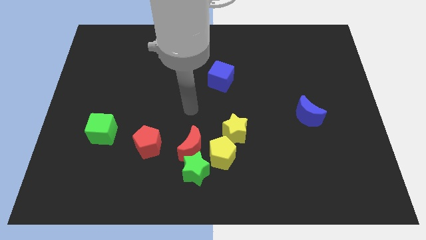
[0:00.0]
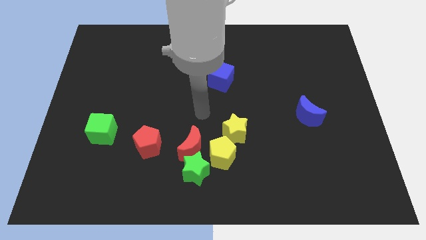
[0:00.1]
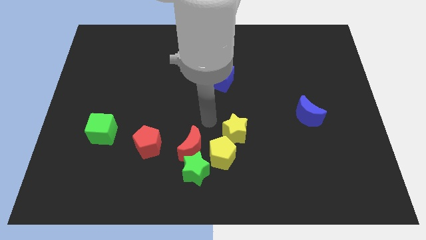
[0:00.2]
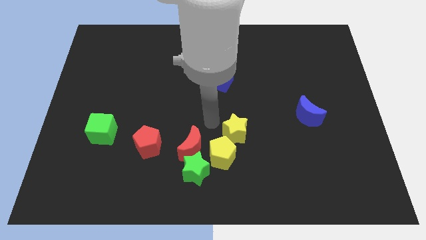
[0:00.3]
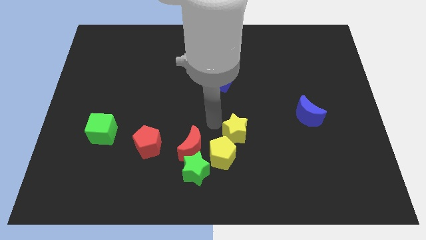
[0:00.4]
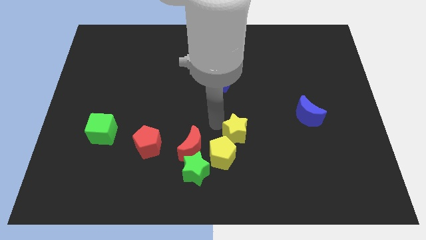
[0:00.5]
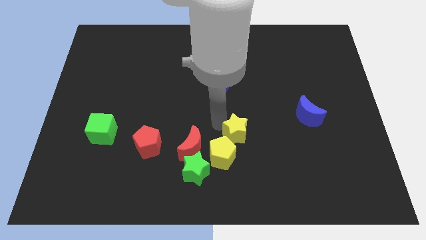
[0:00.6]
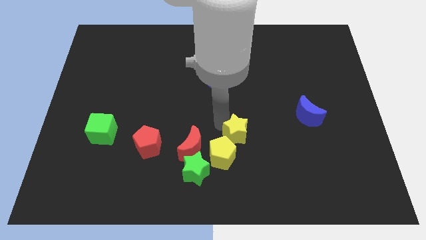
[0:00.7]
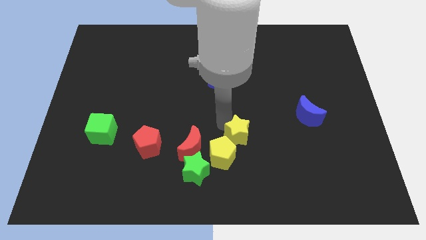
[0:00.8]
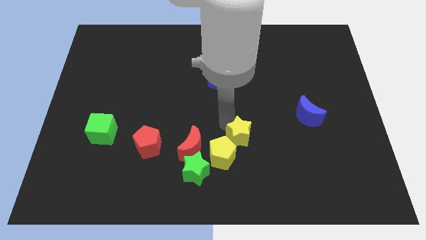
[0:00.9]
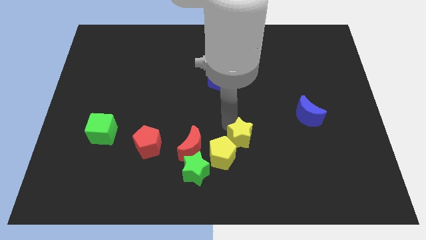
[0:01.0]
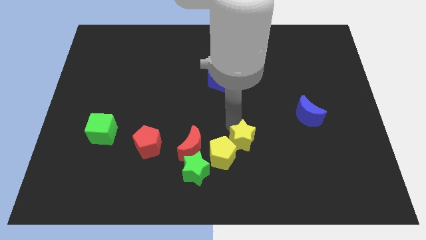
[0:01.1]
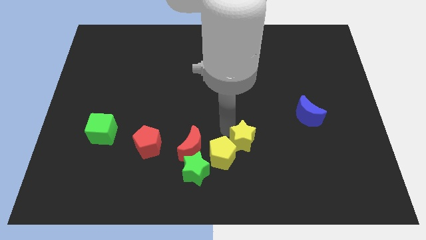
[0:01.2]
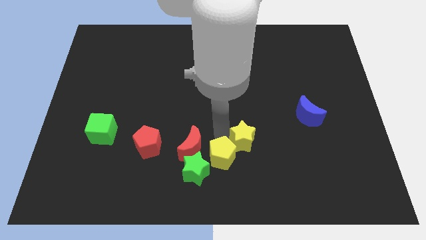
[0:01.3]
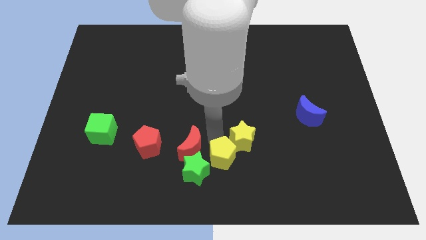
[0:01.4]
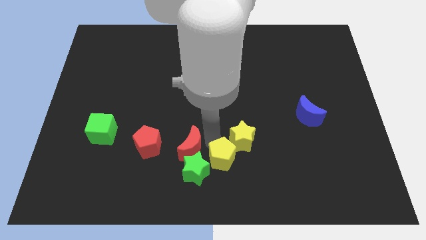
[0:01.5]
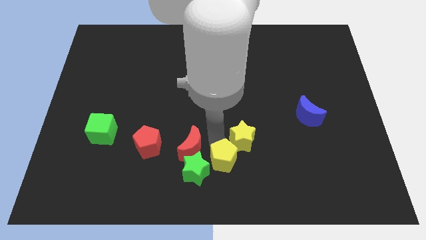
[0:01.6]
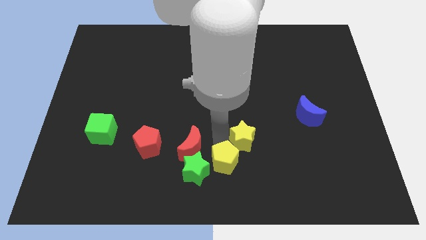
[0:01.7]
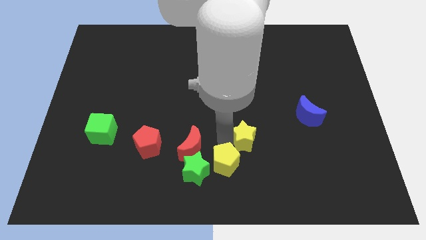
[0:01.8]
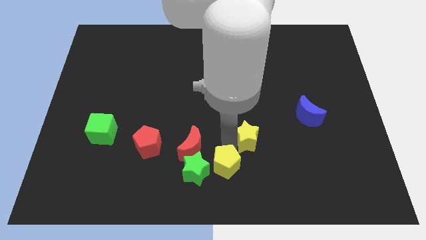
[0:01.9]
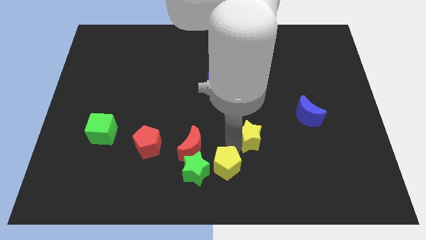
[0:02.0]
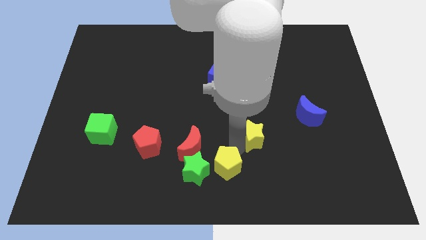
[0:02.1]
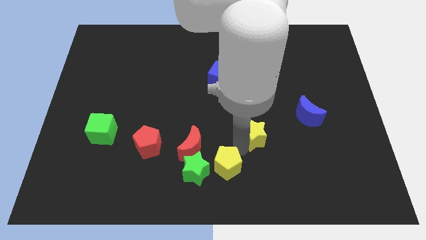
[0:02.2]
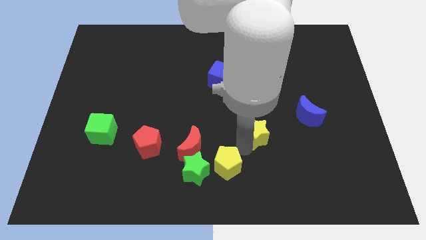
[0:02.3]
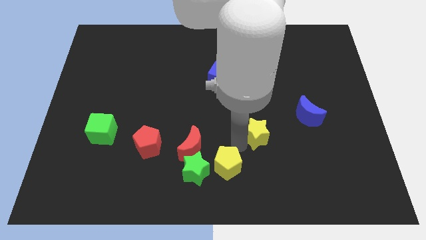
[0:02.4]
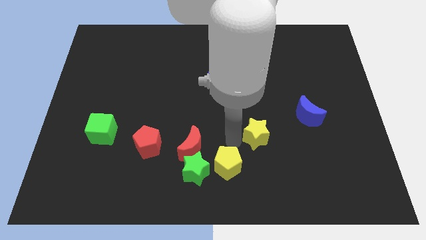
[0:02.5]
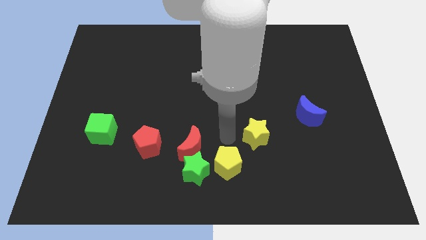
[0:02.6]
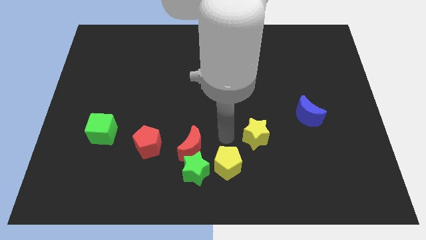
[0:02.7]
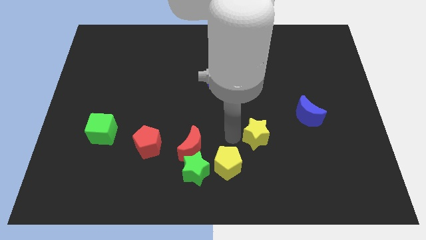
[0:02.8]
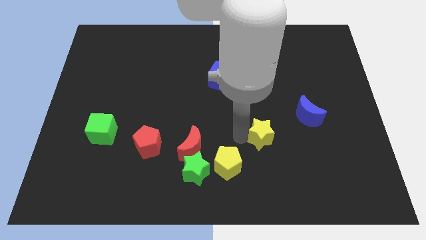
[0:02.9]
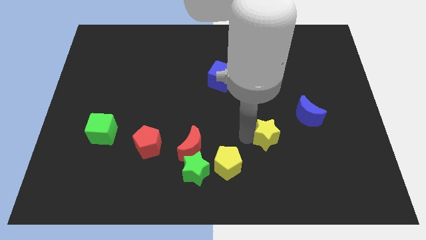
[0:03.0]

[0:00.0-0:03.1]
slightly move the yellow star right

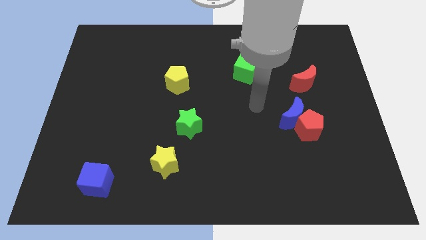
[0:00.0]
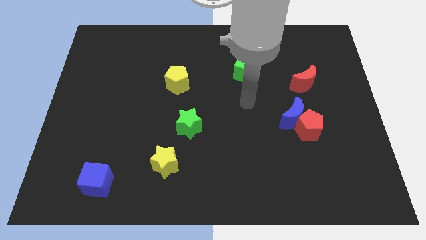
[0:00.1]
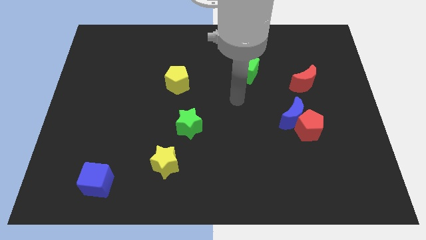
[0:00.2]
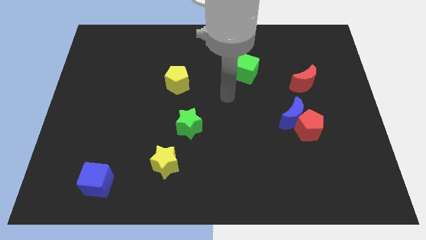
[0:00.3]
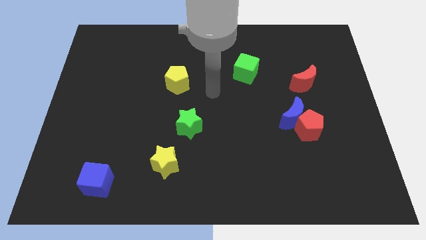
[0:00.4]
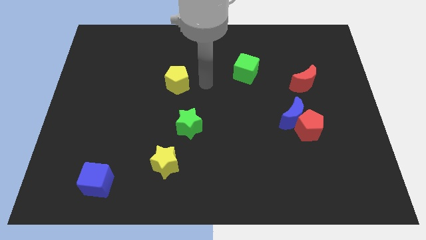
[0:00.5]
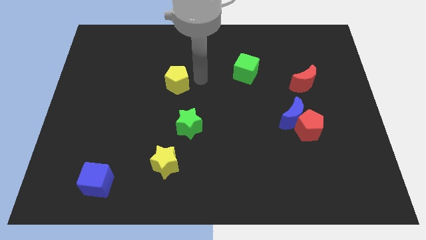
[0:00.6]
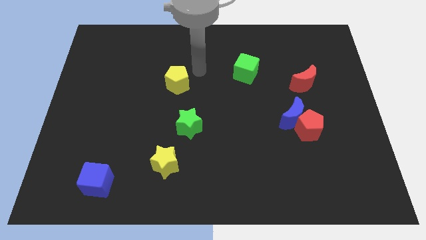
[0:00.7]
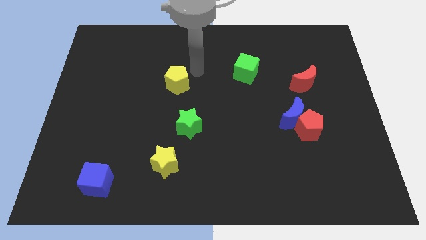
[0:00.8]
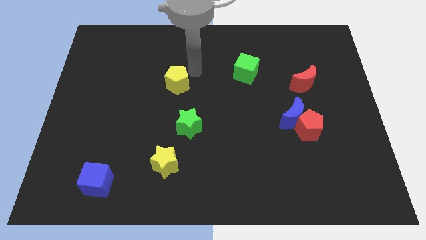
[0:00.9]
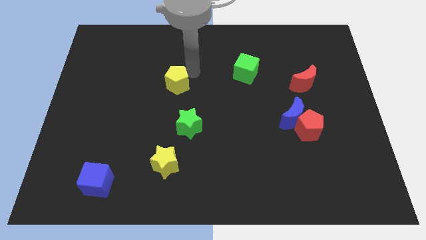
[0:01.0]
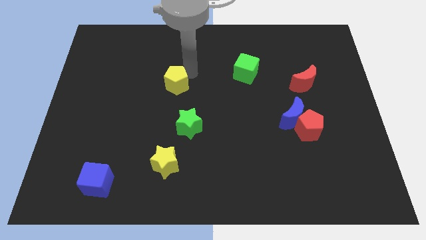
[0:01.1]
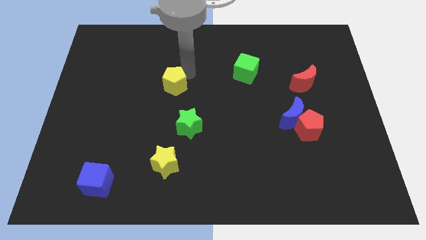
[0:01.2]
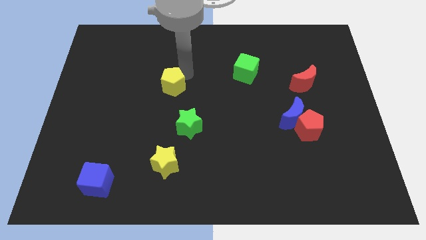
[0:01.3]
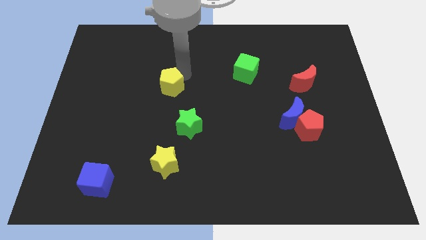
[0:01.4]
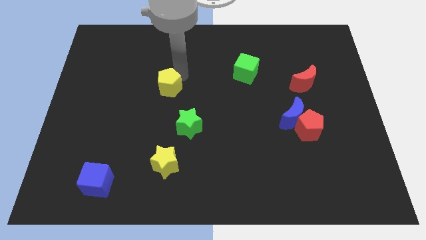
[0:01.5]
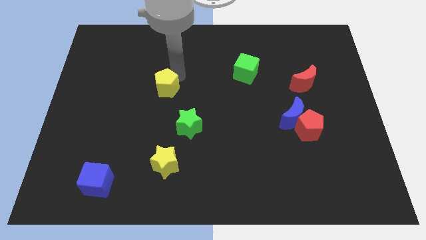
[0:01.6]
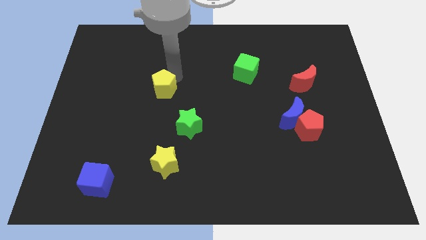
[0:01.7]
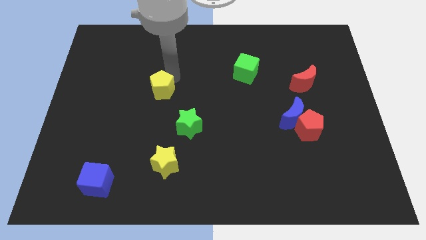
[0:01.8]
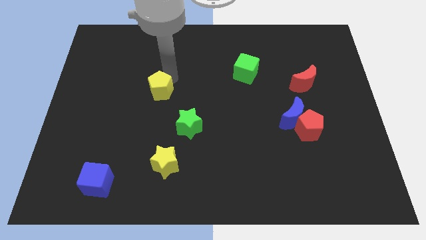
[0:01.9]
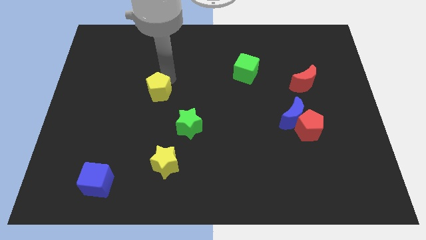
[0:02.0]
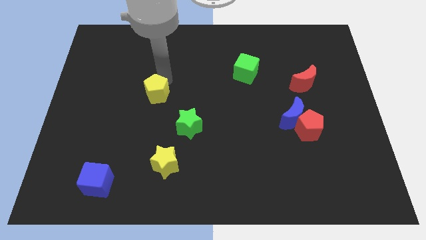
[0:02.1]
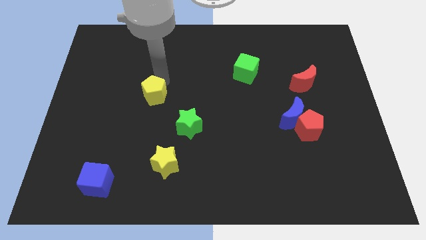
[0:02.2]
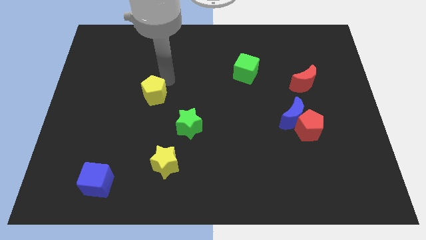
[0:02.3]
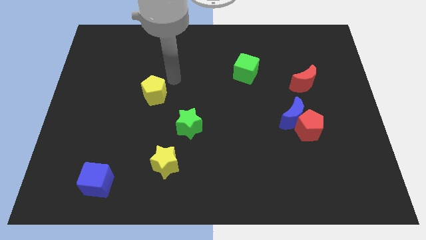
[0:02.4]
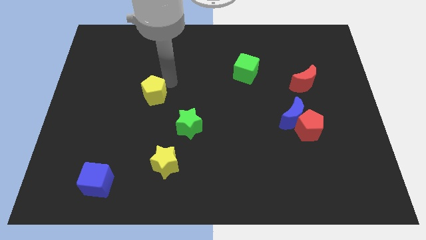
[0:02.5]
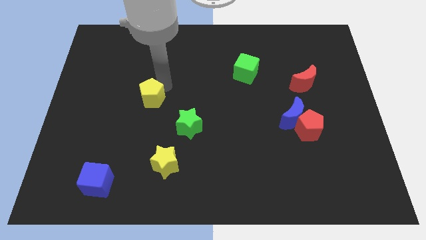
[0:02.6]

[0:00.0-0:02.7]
slide the yellow pentagon diagonally down and to the left somewhat

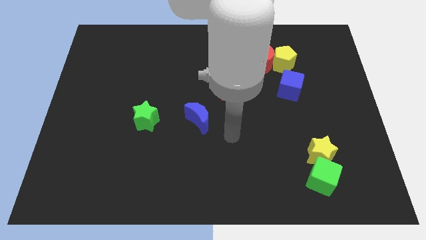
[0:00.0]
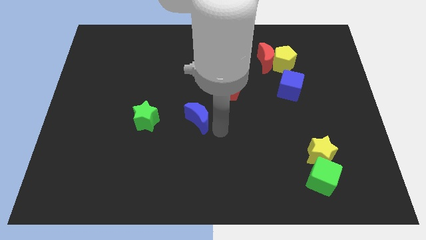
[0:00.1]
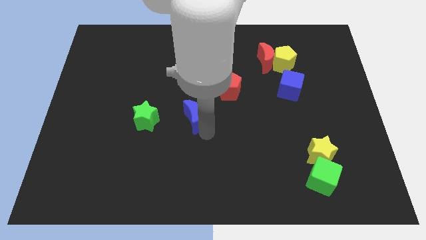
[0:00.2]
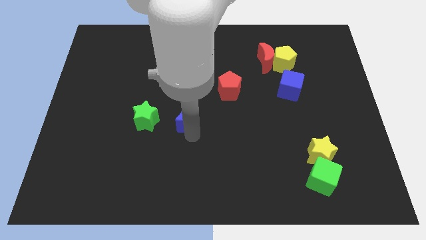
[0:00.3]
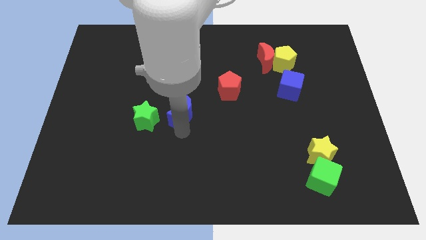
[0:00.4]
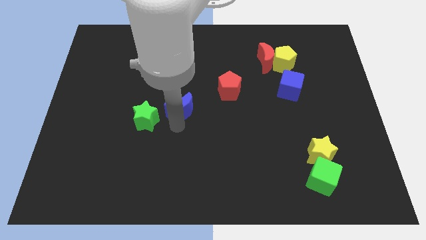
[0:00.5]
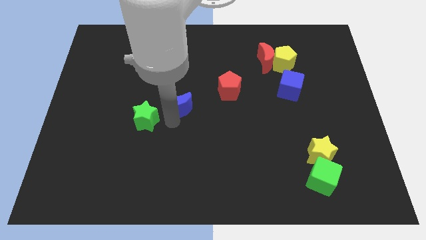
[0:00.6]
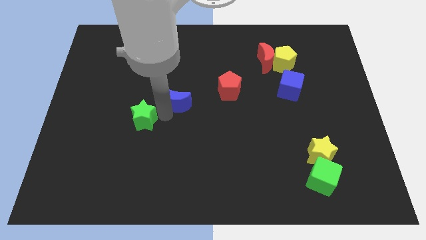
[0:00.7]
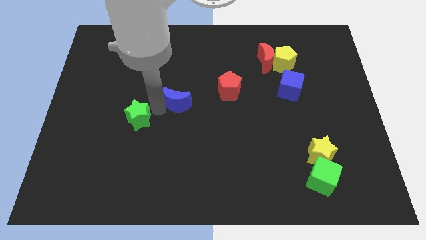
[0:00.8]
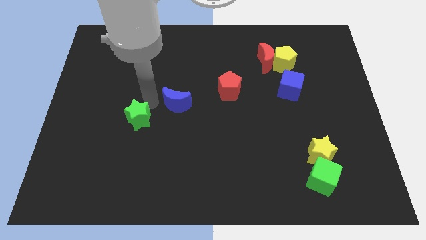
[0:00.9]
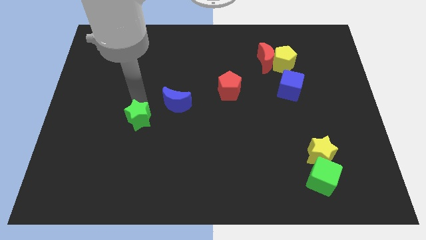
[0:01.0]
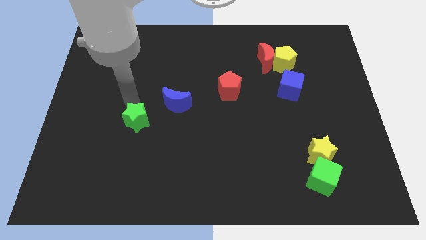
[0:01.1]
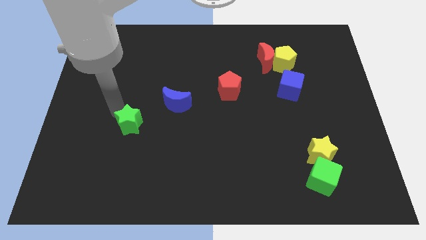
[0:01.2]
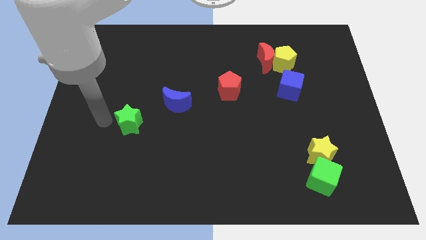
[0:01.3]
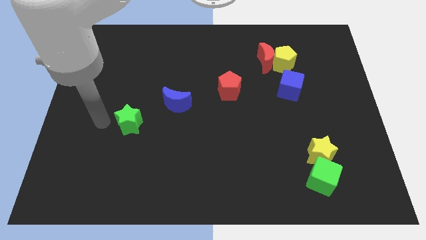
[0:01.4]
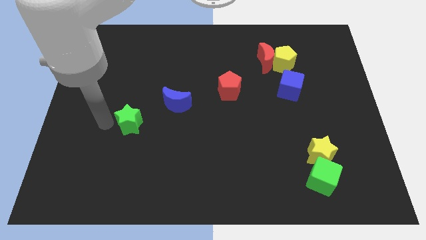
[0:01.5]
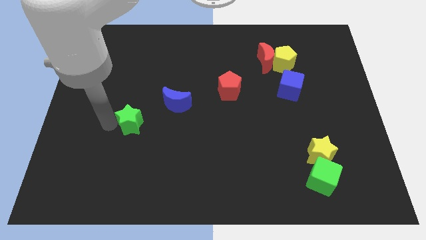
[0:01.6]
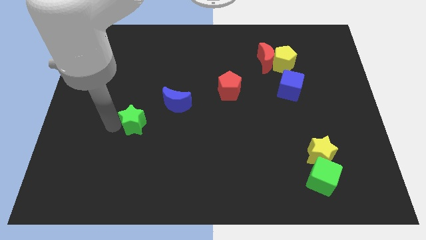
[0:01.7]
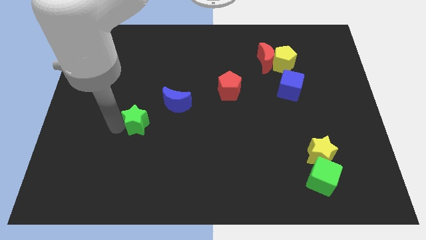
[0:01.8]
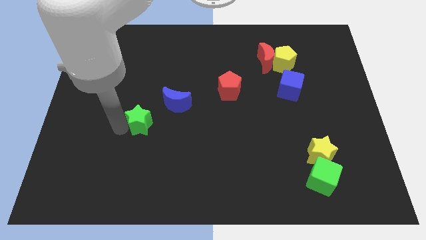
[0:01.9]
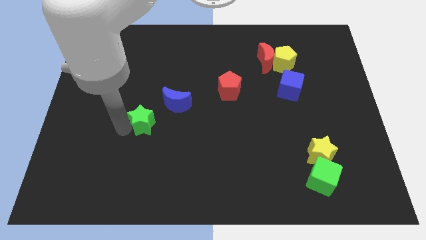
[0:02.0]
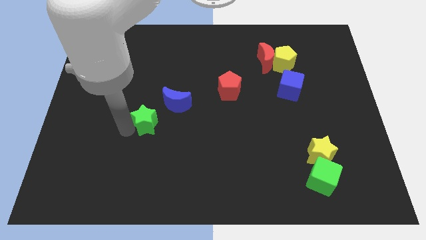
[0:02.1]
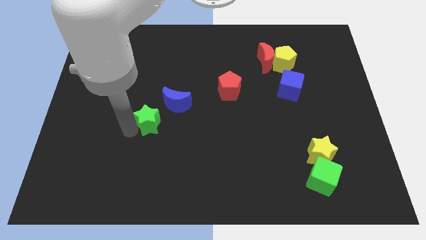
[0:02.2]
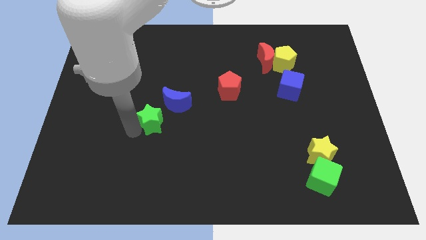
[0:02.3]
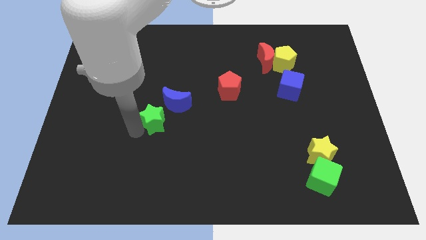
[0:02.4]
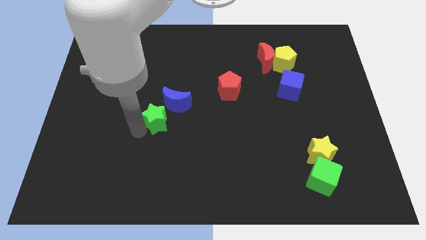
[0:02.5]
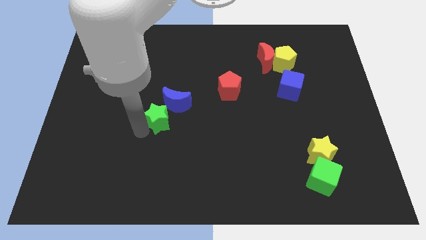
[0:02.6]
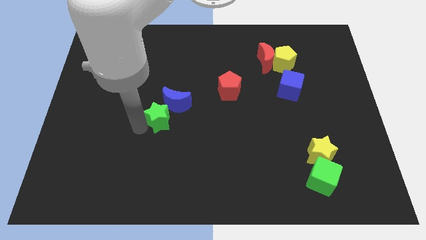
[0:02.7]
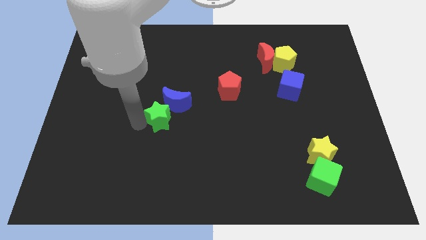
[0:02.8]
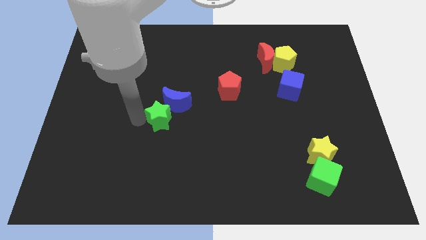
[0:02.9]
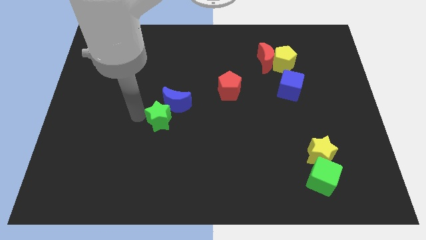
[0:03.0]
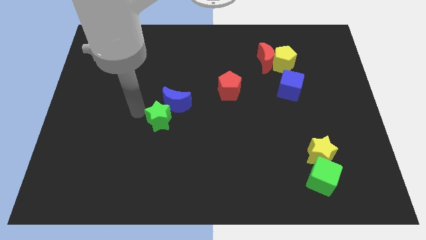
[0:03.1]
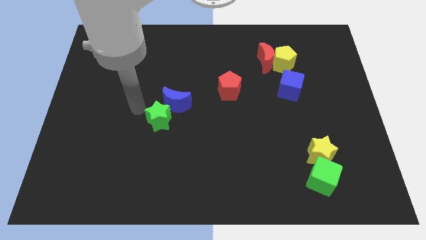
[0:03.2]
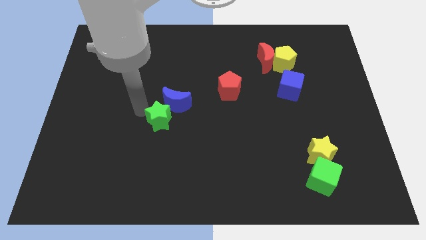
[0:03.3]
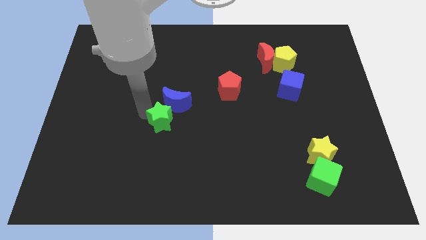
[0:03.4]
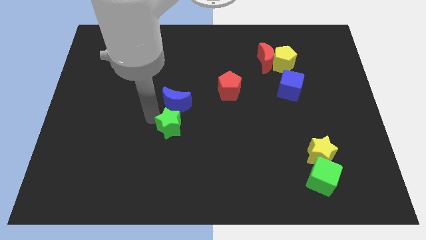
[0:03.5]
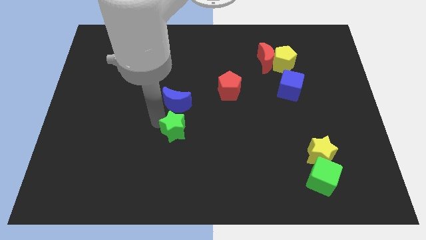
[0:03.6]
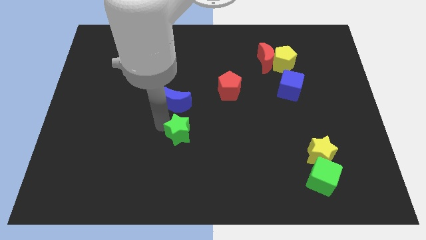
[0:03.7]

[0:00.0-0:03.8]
slide the green star to the right a little bit
